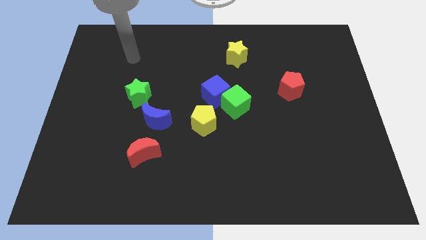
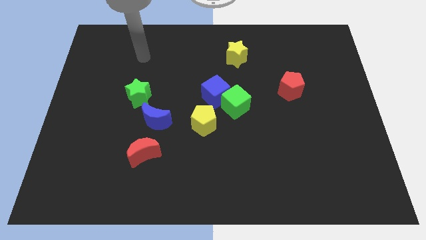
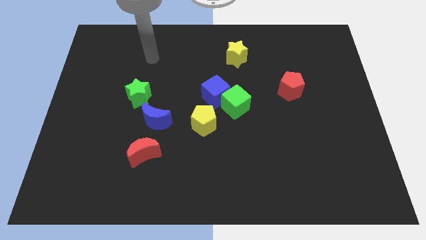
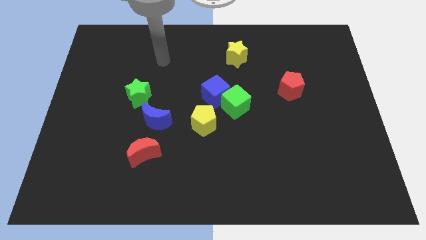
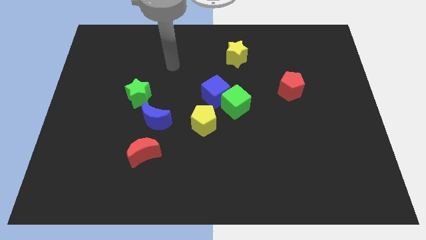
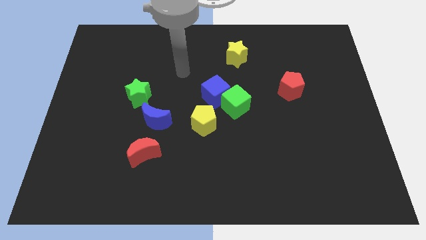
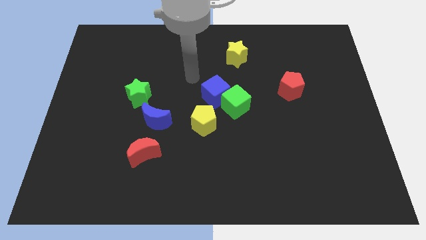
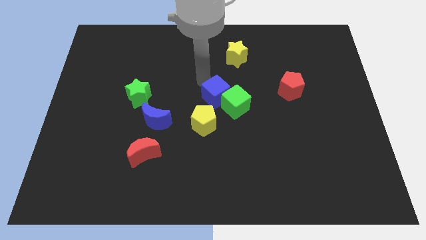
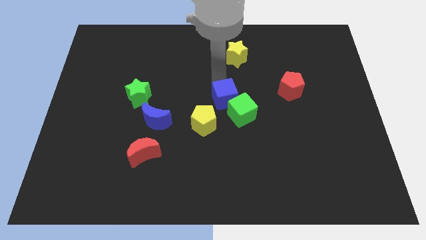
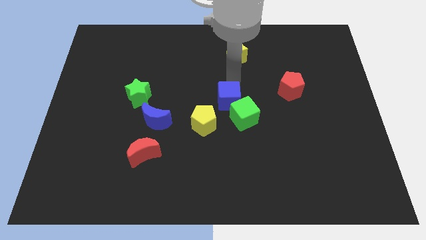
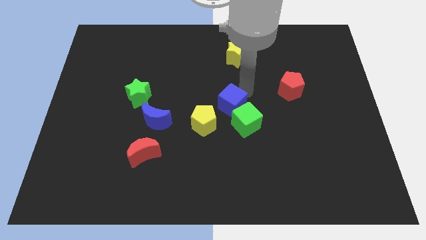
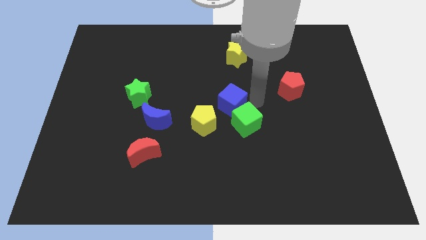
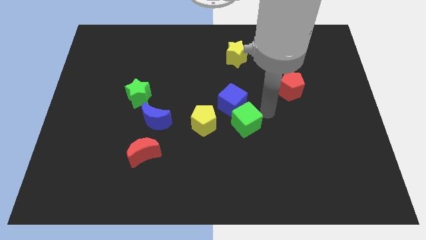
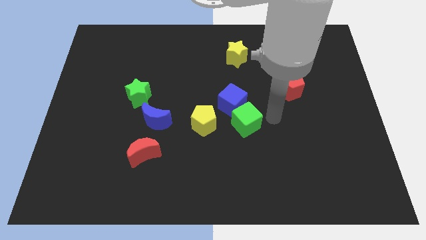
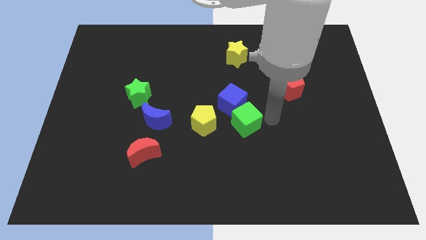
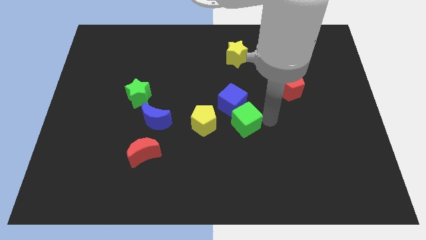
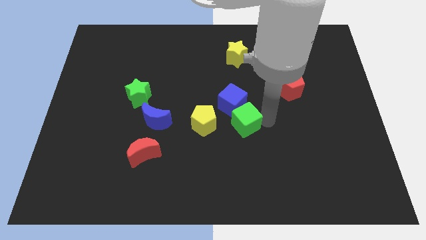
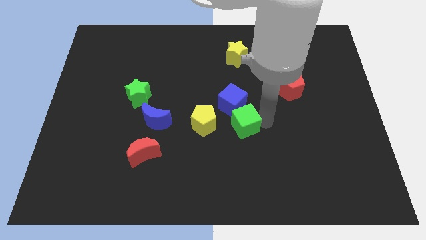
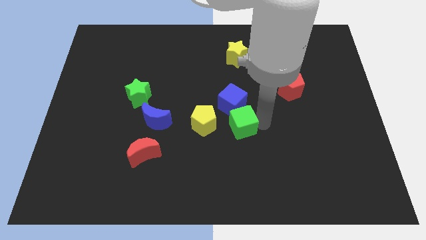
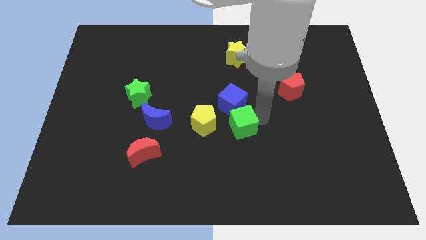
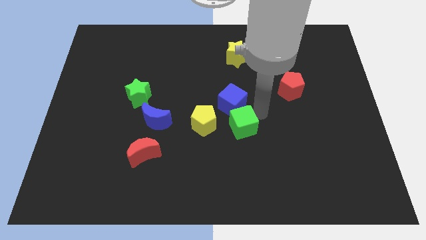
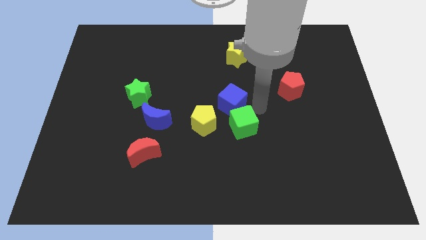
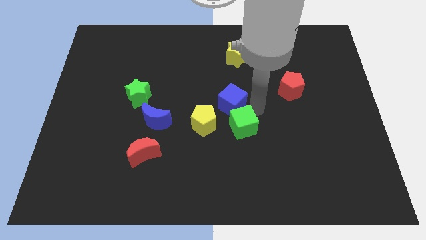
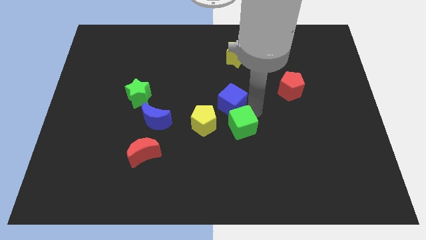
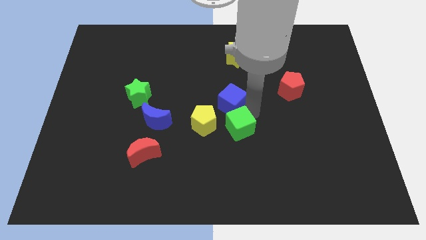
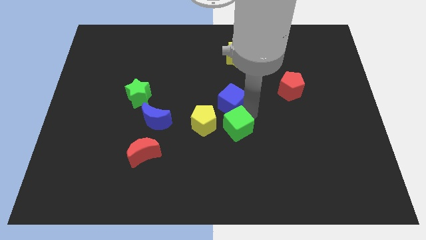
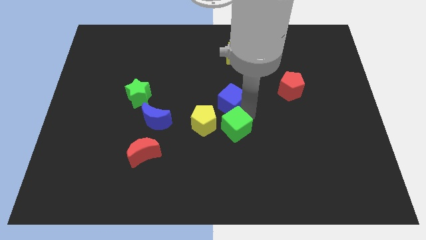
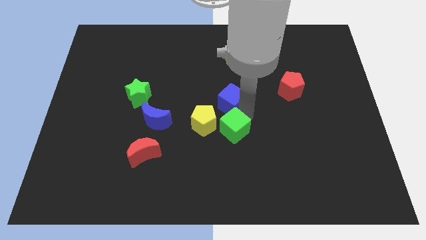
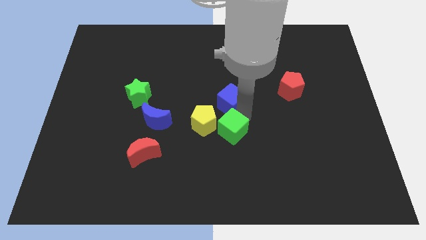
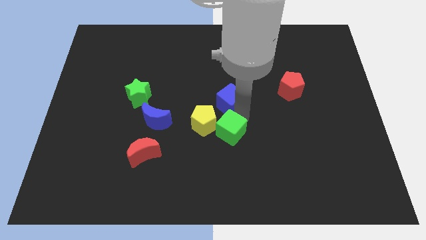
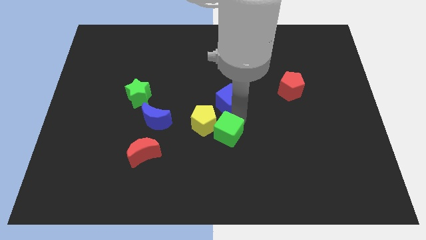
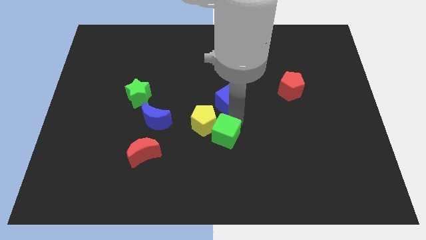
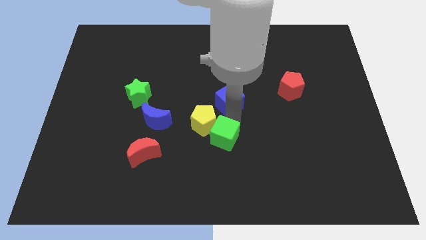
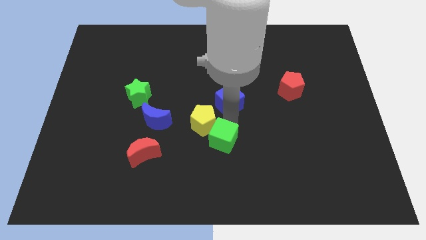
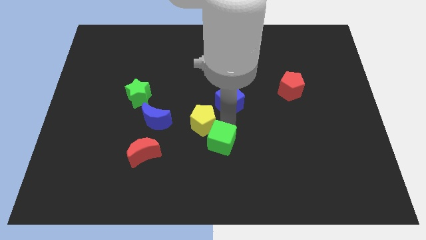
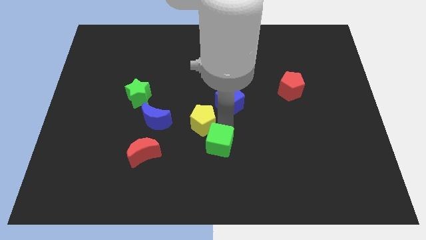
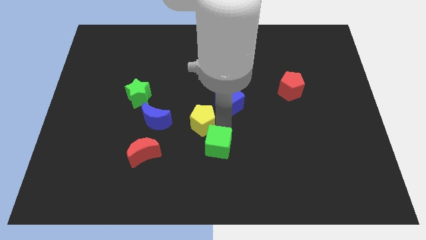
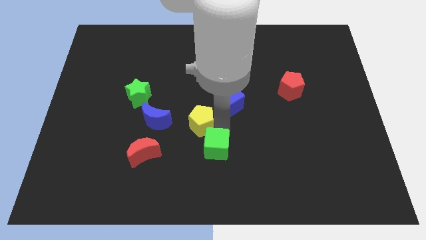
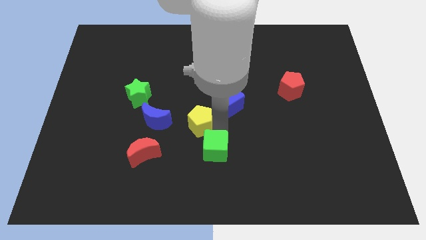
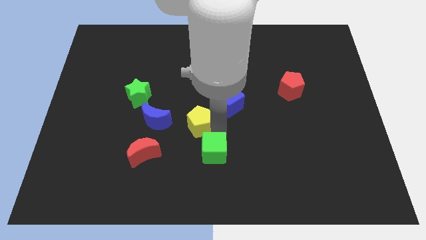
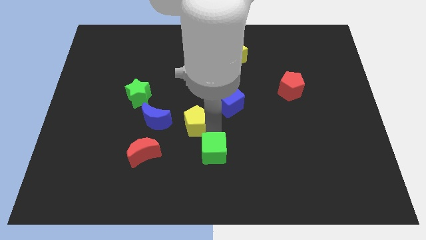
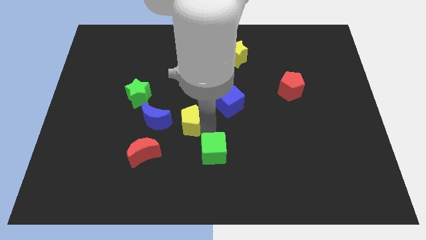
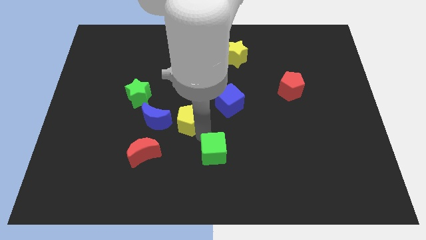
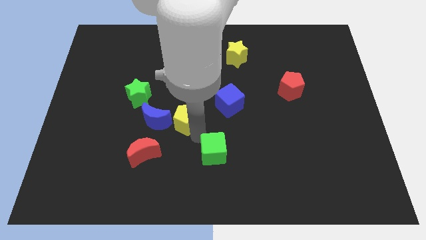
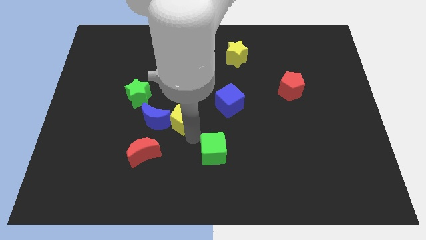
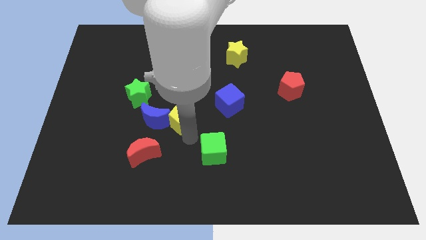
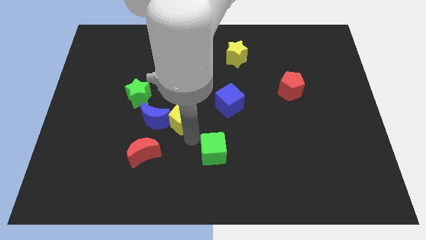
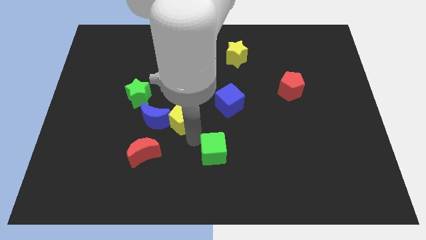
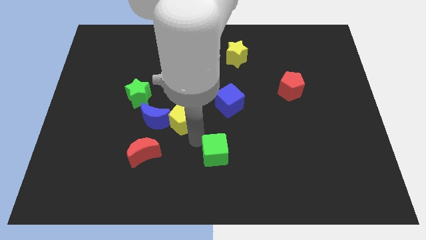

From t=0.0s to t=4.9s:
slide the green cube to the bottom

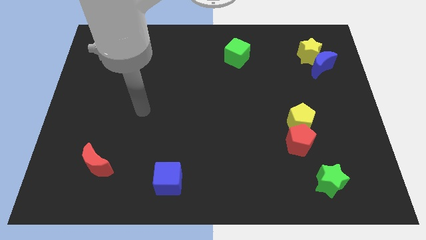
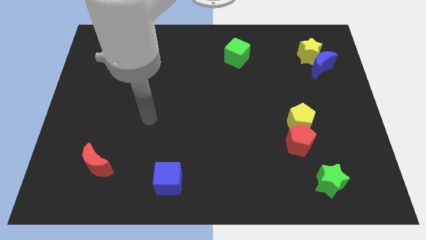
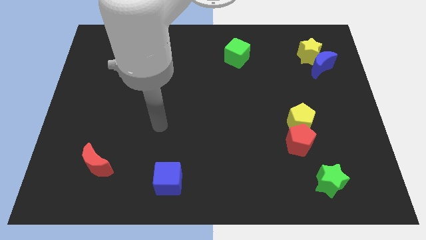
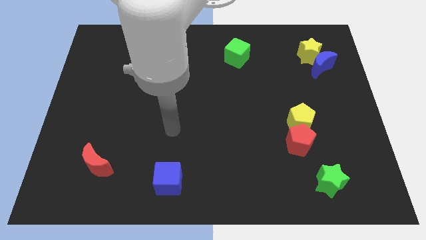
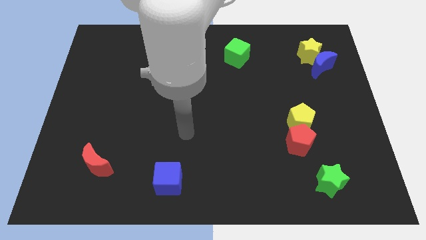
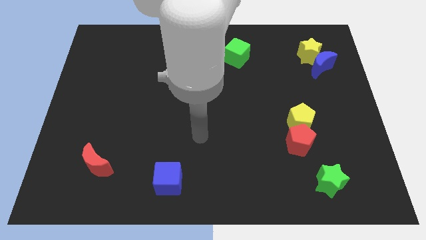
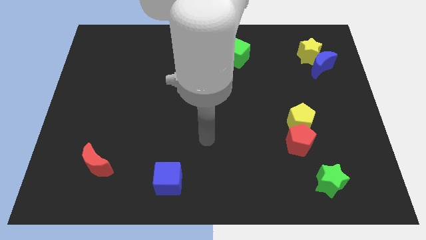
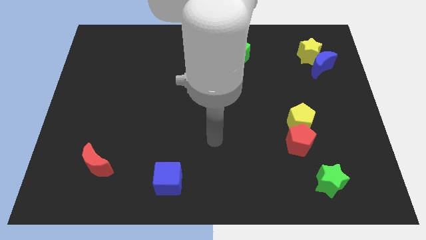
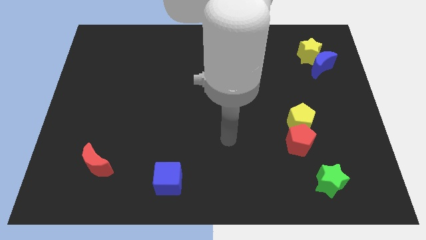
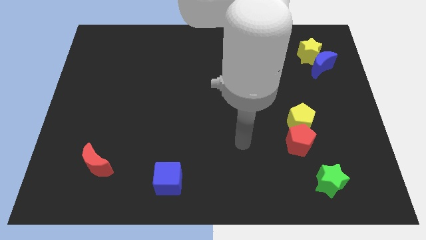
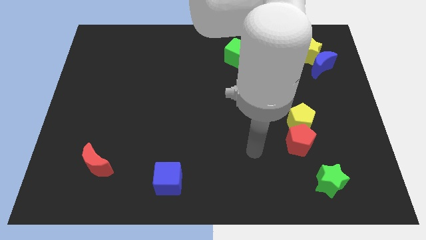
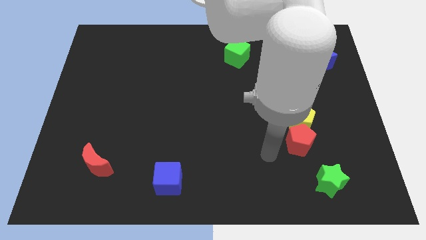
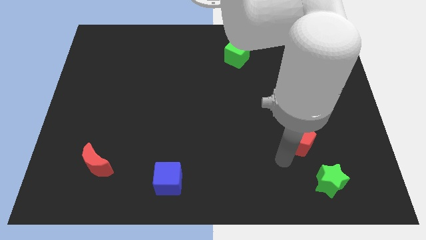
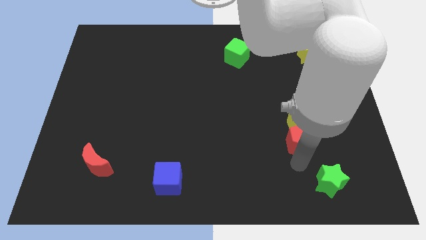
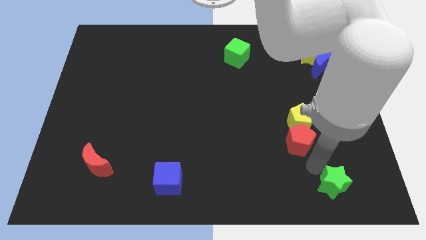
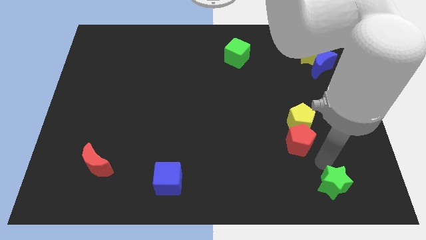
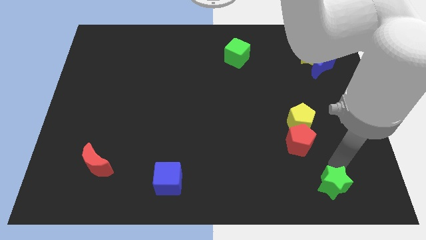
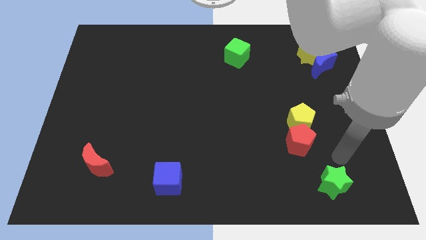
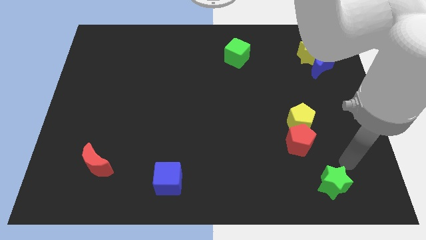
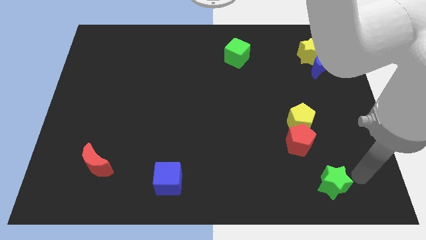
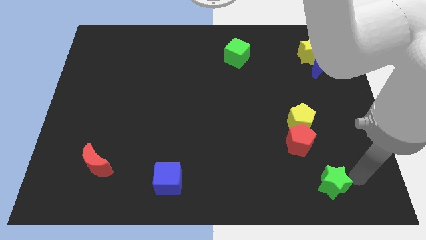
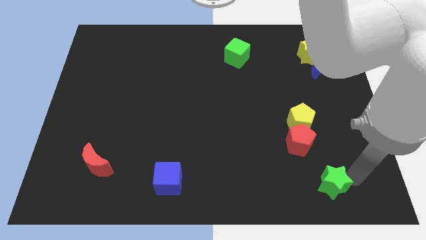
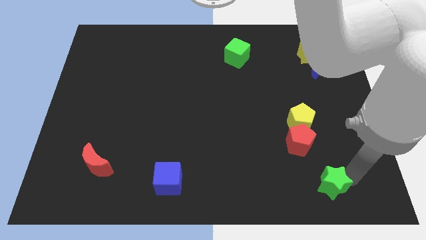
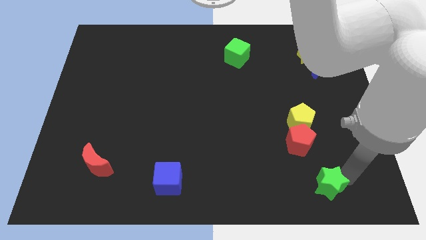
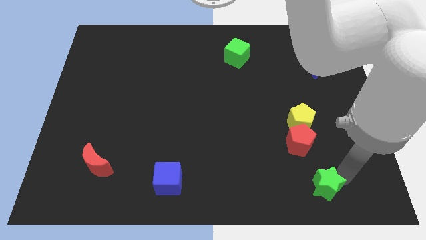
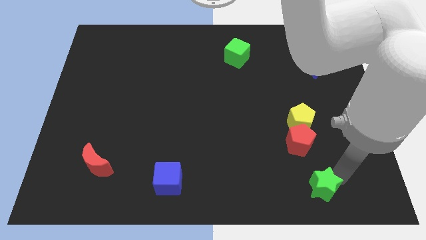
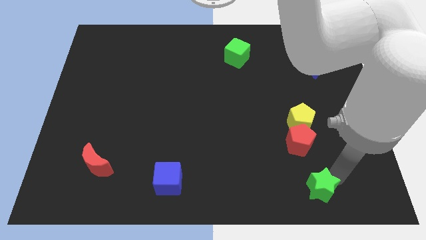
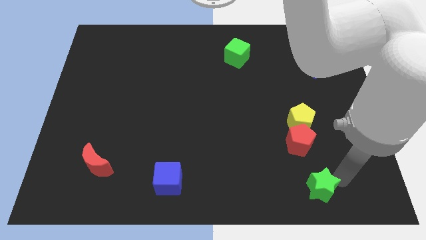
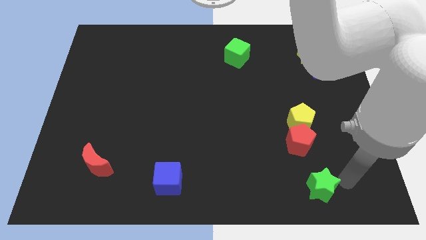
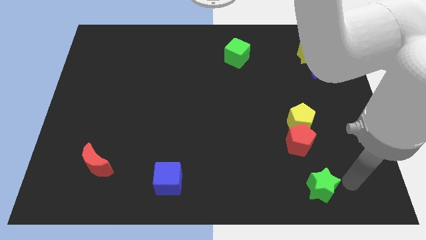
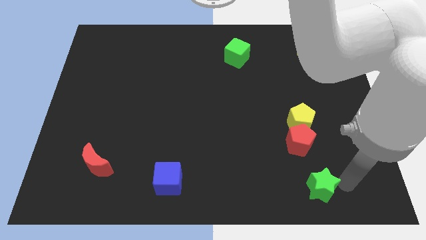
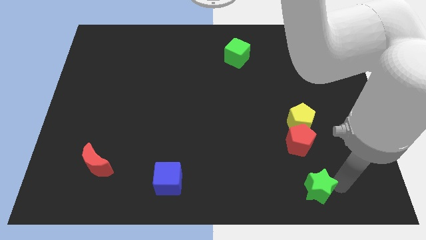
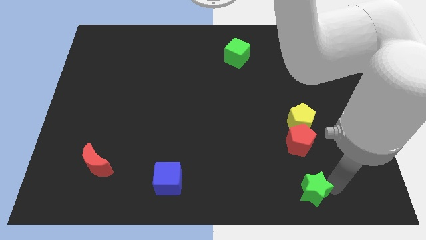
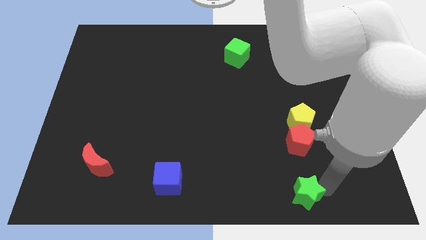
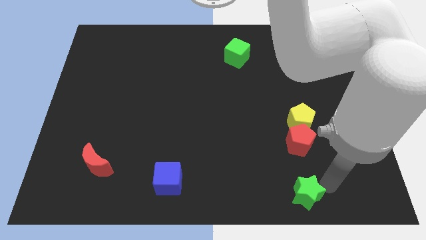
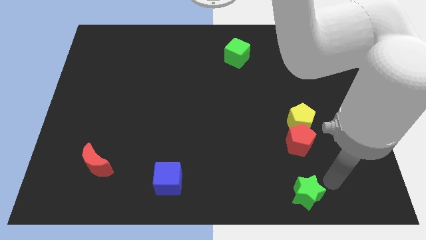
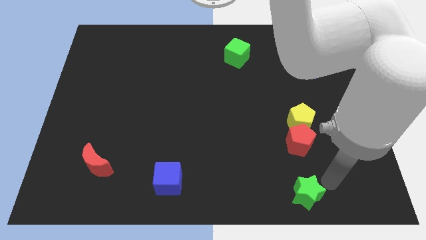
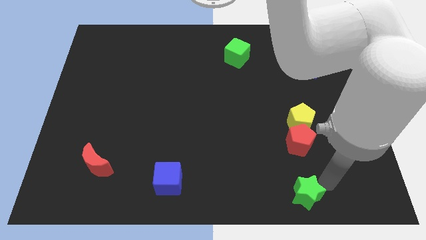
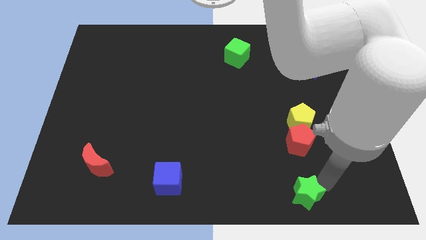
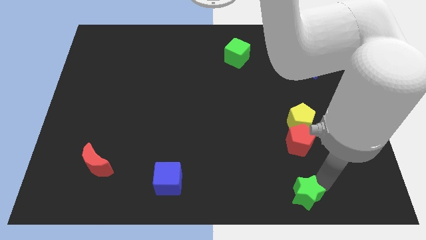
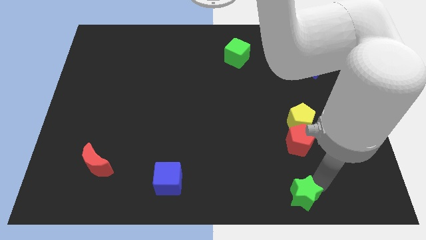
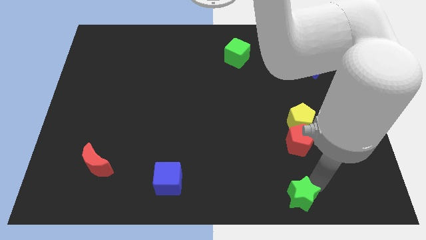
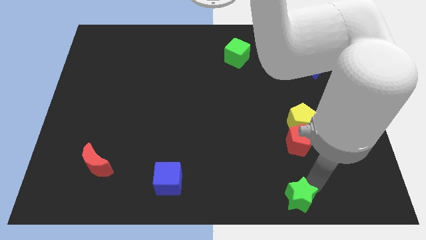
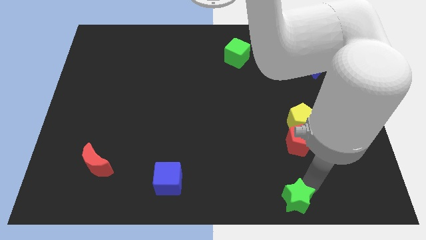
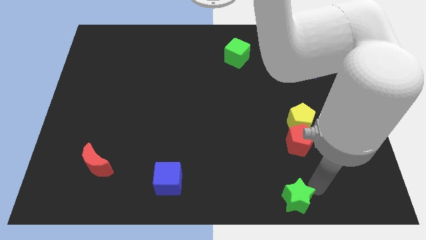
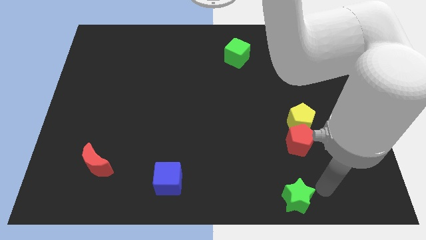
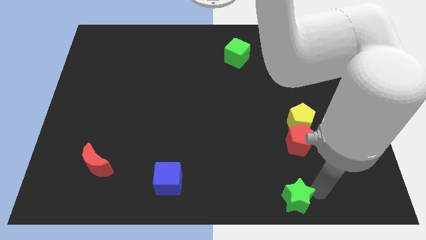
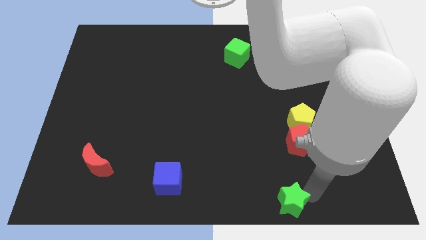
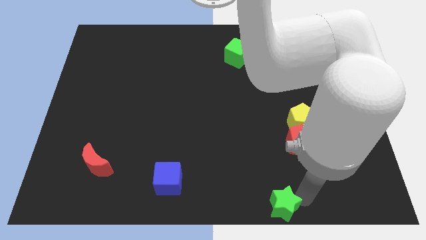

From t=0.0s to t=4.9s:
move the green star to the bottom
